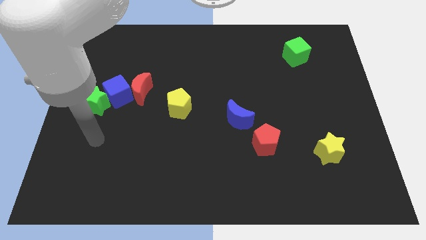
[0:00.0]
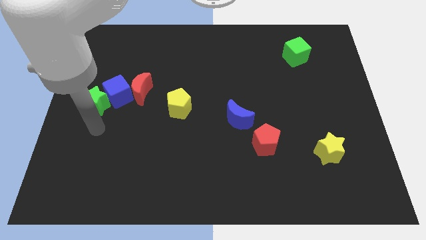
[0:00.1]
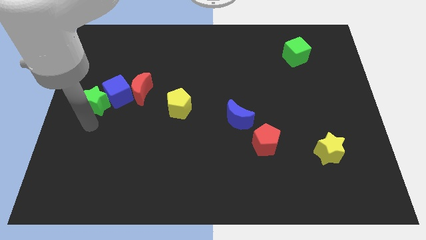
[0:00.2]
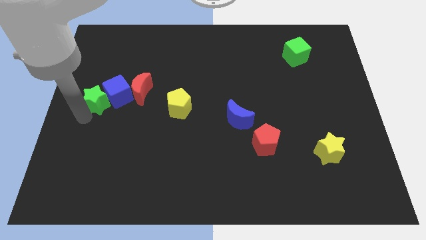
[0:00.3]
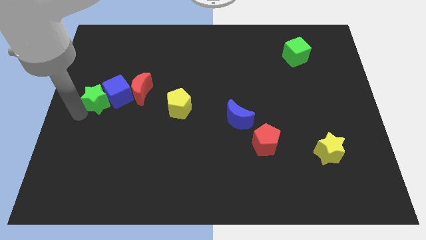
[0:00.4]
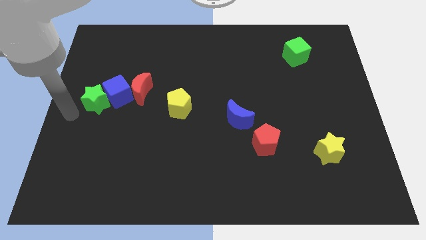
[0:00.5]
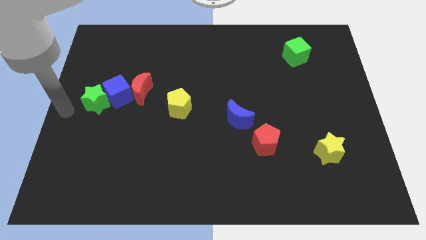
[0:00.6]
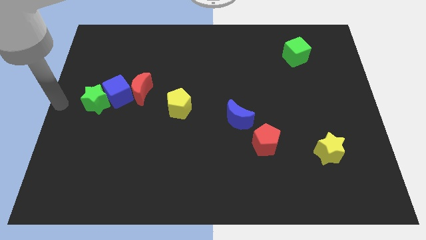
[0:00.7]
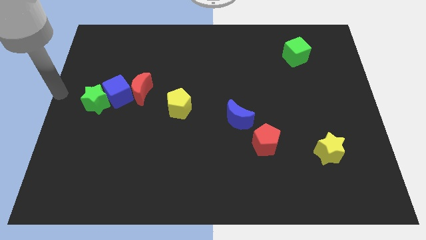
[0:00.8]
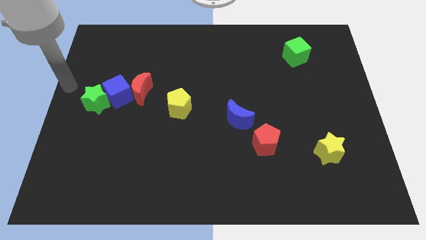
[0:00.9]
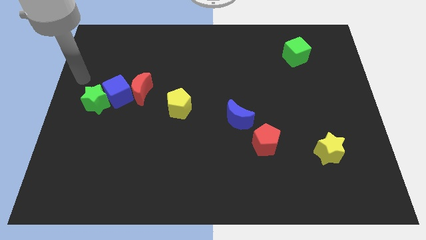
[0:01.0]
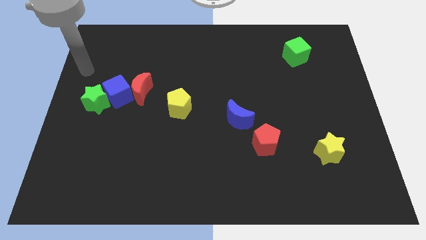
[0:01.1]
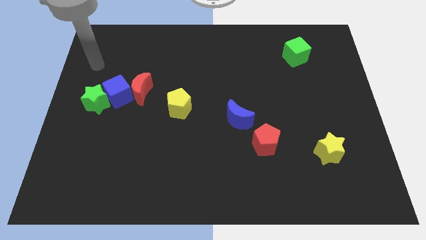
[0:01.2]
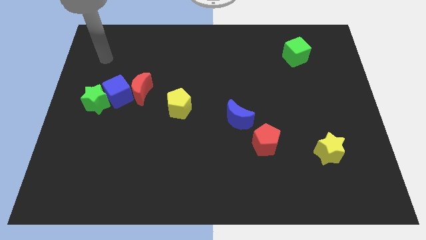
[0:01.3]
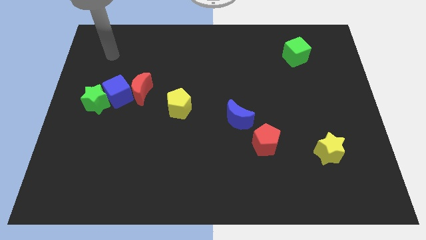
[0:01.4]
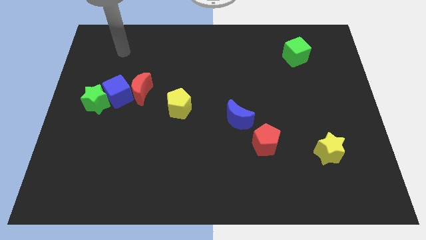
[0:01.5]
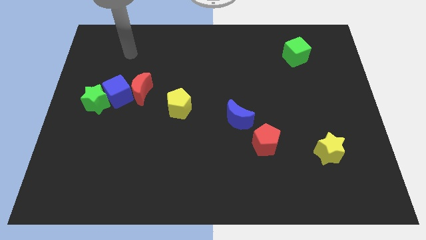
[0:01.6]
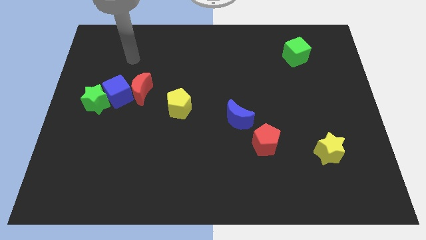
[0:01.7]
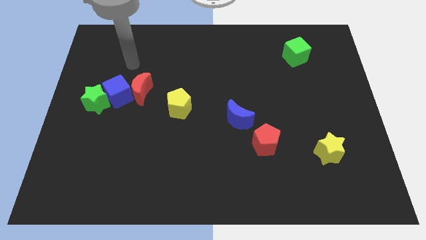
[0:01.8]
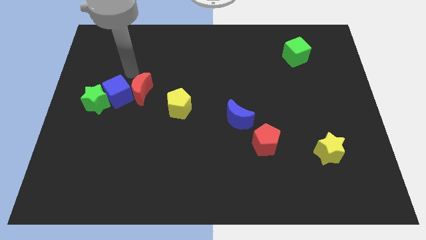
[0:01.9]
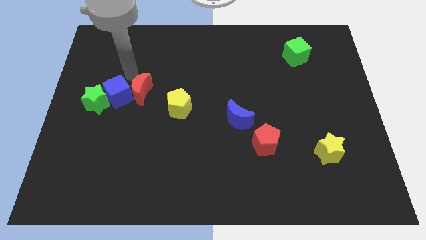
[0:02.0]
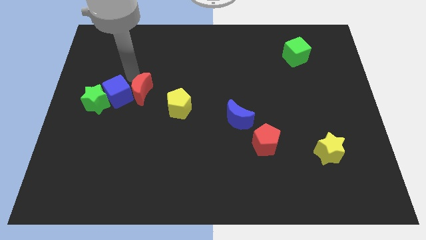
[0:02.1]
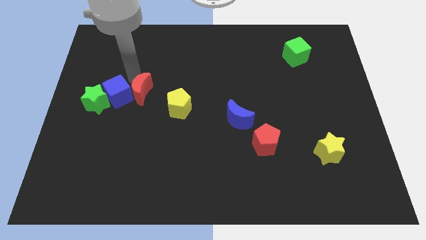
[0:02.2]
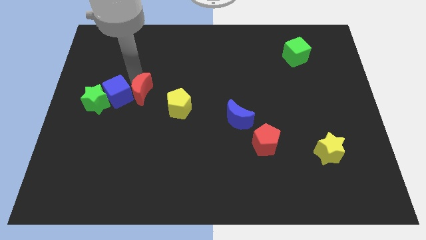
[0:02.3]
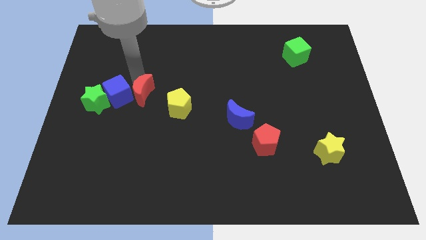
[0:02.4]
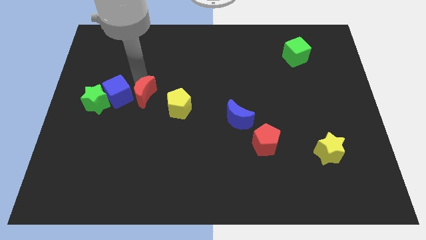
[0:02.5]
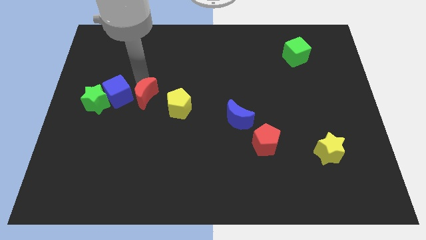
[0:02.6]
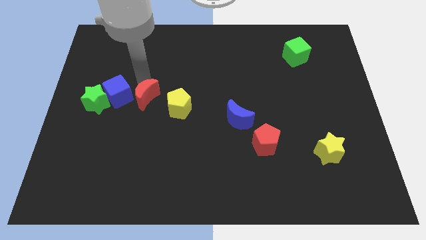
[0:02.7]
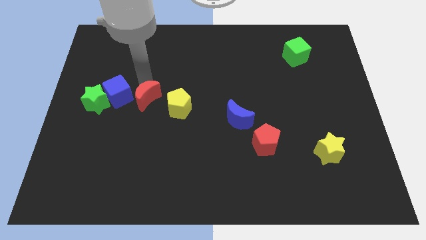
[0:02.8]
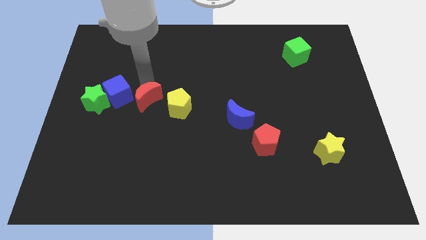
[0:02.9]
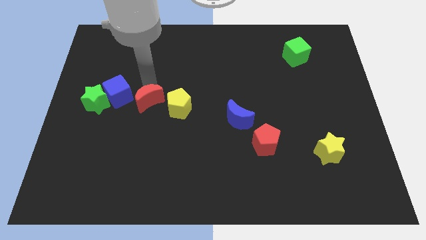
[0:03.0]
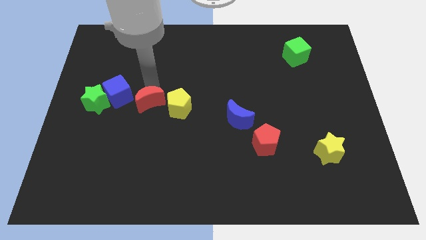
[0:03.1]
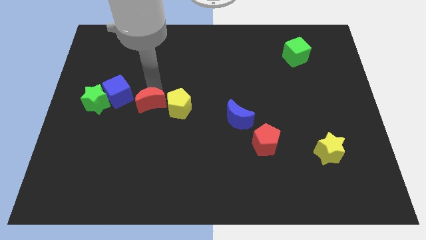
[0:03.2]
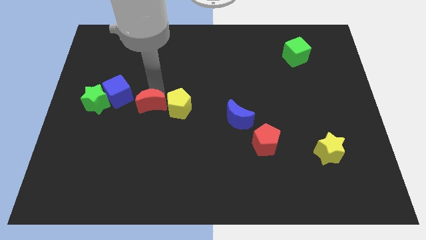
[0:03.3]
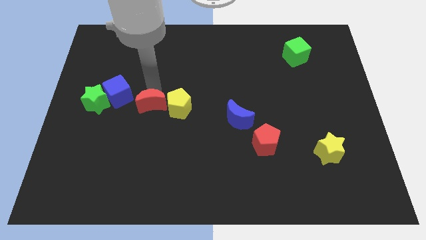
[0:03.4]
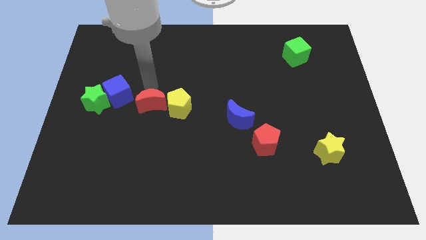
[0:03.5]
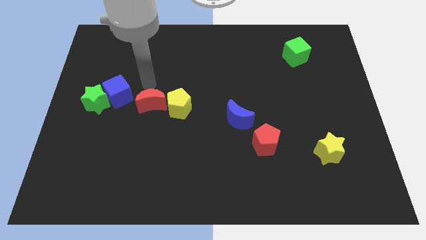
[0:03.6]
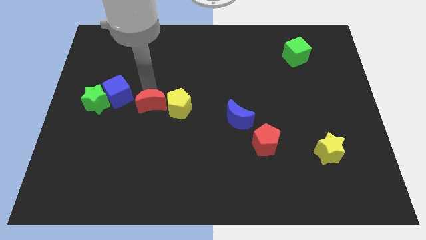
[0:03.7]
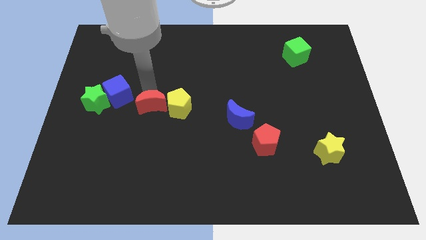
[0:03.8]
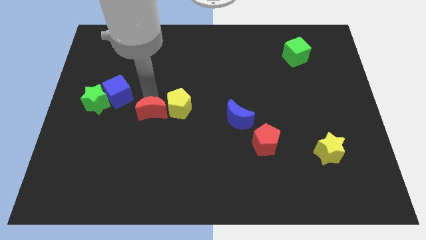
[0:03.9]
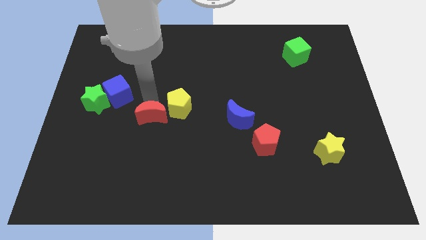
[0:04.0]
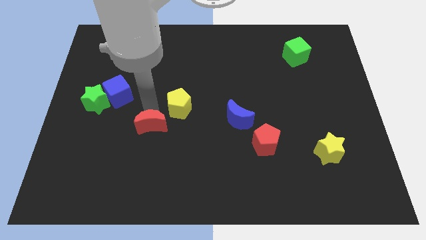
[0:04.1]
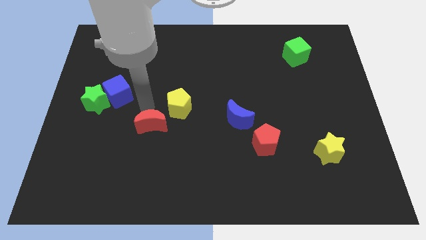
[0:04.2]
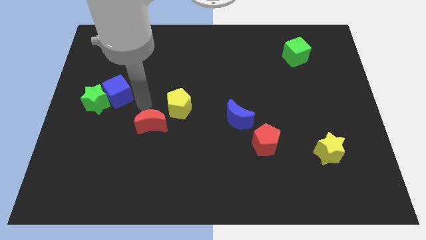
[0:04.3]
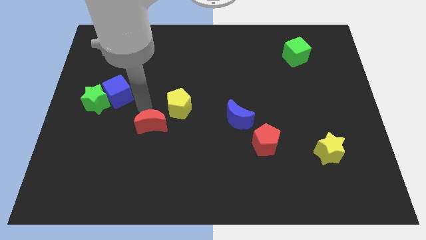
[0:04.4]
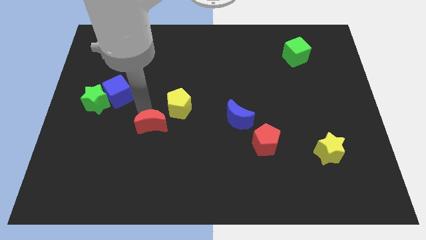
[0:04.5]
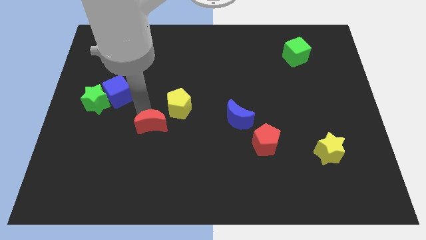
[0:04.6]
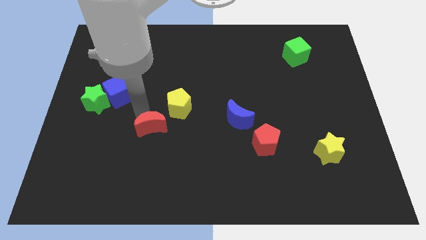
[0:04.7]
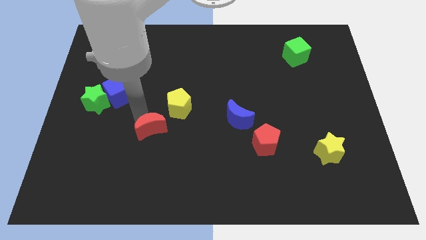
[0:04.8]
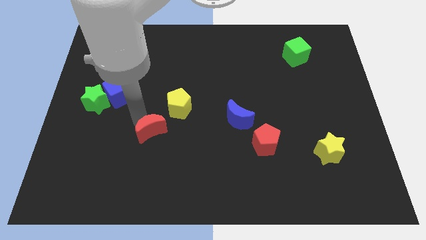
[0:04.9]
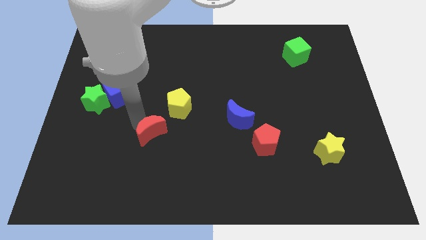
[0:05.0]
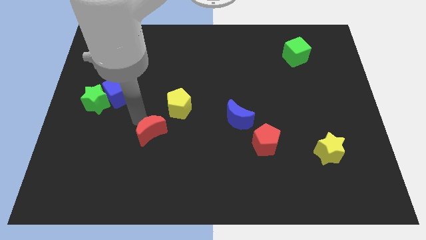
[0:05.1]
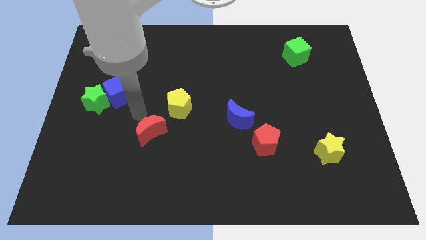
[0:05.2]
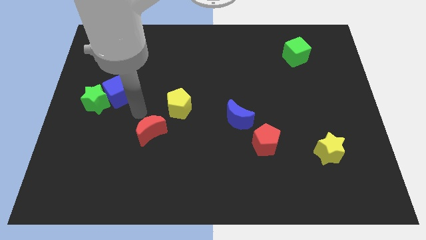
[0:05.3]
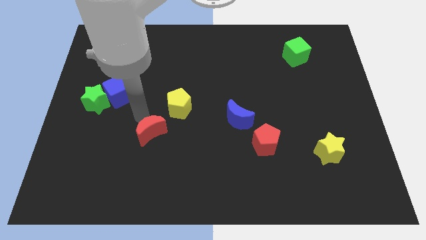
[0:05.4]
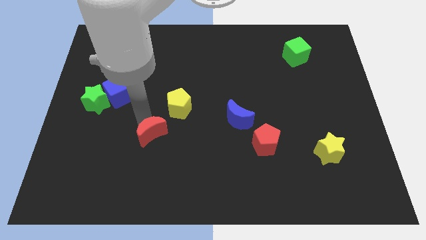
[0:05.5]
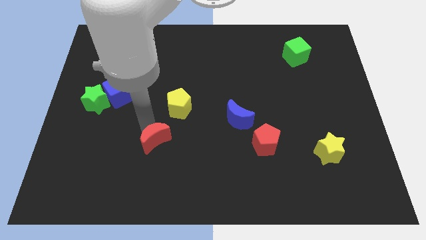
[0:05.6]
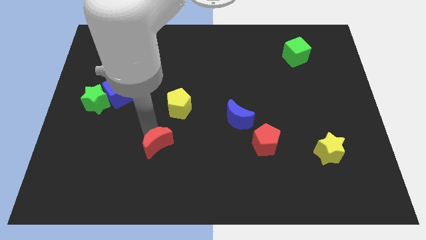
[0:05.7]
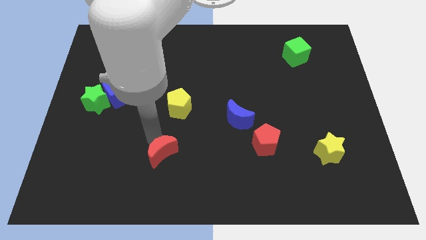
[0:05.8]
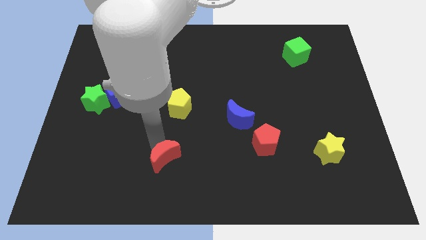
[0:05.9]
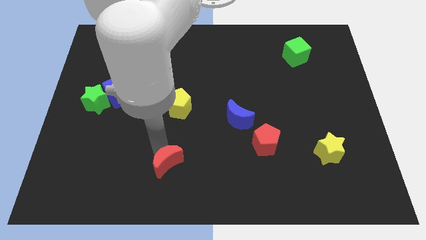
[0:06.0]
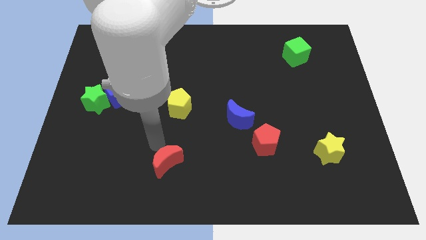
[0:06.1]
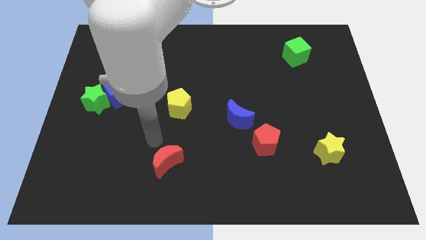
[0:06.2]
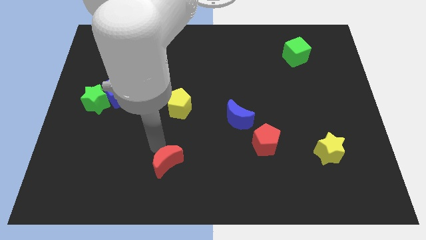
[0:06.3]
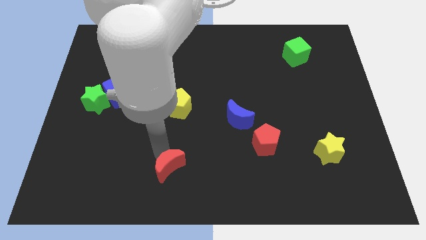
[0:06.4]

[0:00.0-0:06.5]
put the red moon to the bottom side

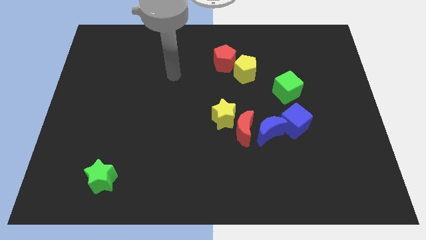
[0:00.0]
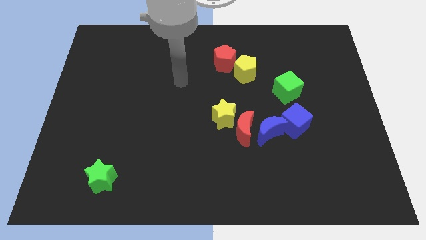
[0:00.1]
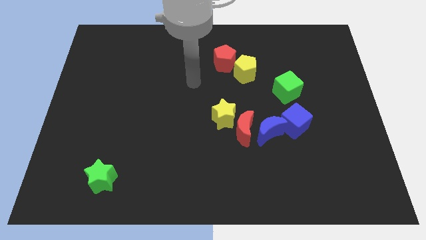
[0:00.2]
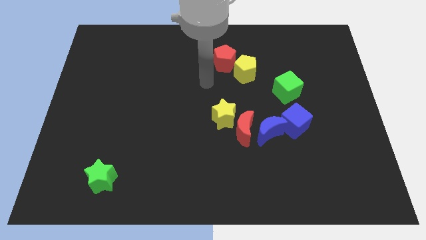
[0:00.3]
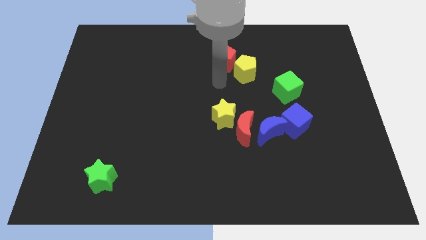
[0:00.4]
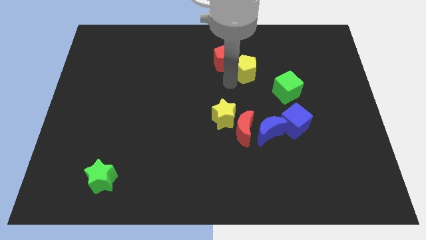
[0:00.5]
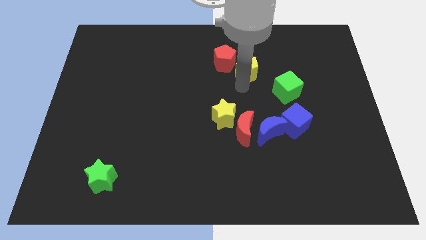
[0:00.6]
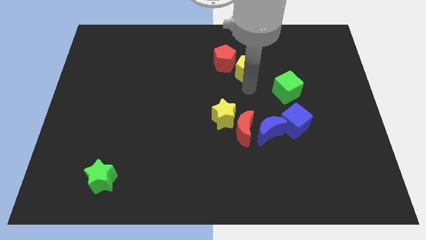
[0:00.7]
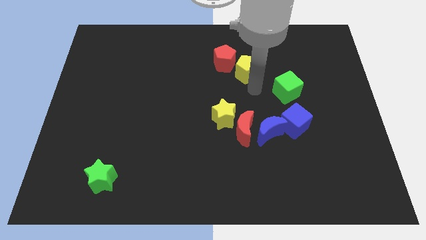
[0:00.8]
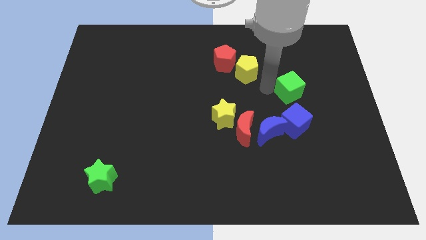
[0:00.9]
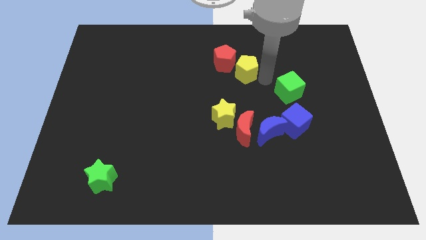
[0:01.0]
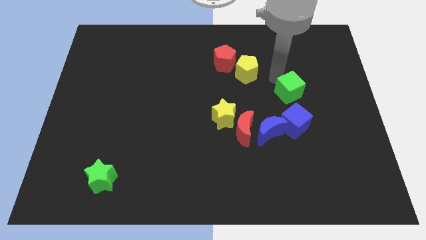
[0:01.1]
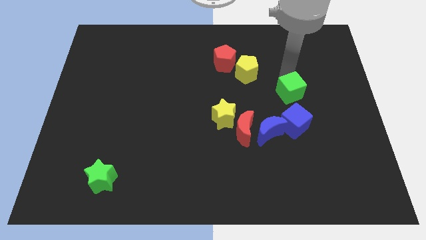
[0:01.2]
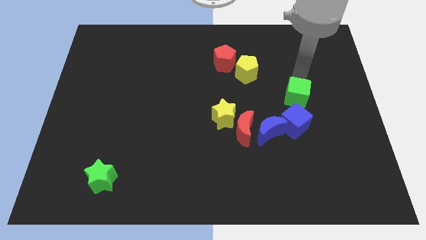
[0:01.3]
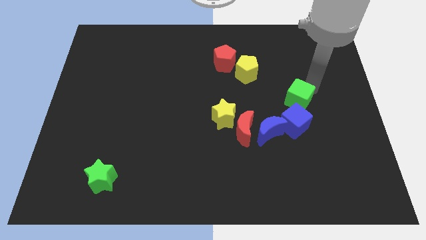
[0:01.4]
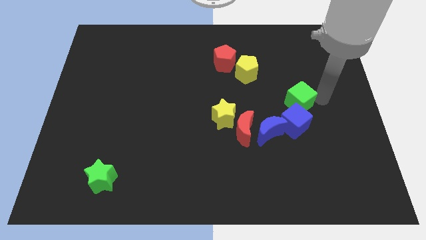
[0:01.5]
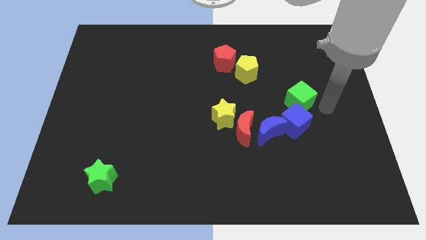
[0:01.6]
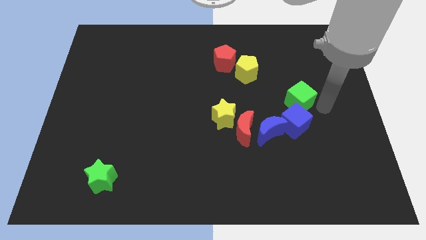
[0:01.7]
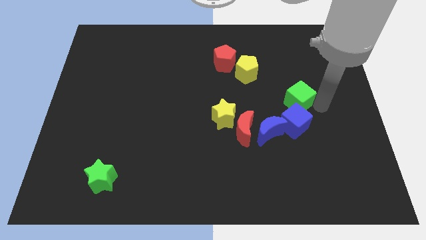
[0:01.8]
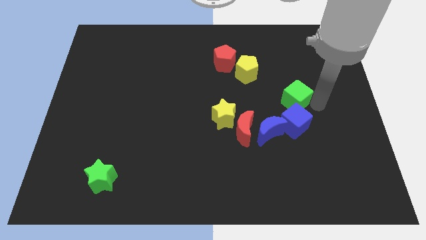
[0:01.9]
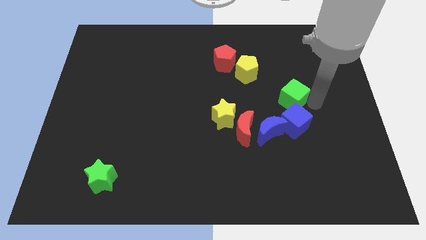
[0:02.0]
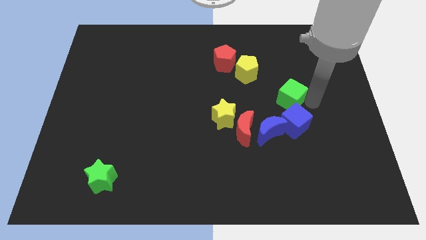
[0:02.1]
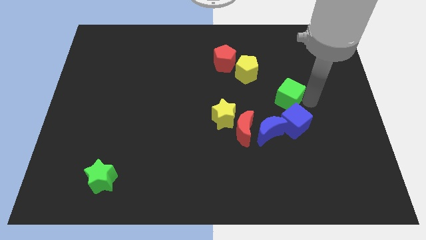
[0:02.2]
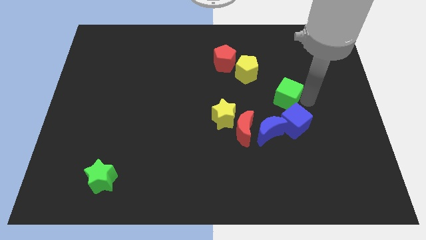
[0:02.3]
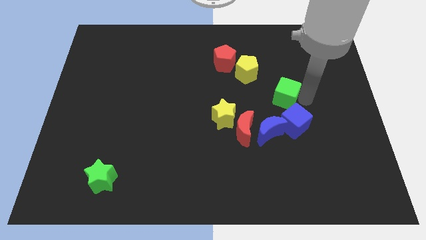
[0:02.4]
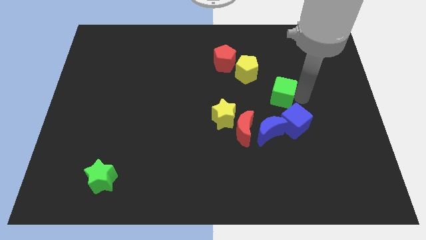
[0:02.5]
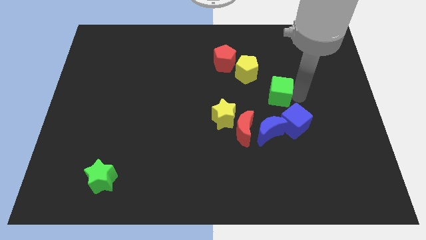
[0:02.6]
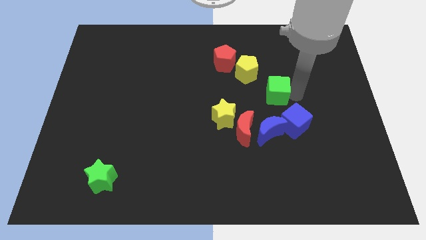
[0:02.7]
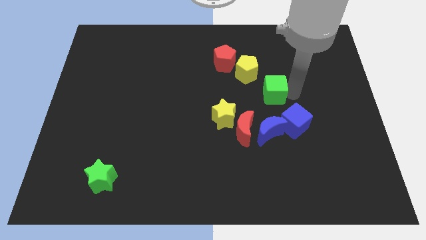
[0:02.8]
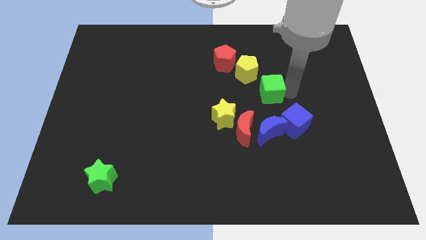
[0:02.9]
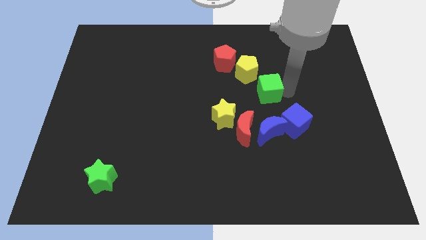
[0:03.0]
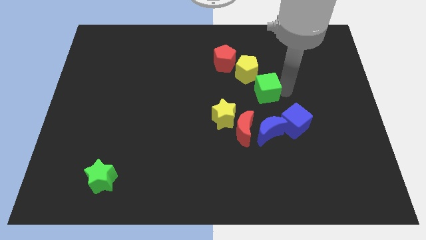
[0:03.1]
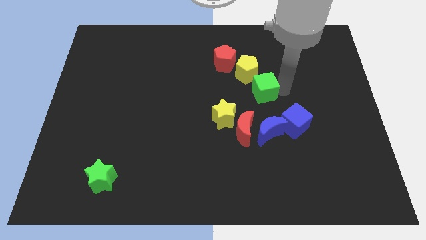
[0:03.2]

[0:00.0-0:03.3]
push the green cube to the middle of the board
